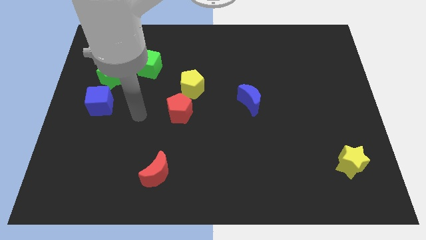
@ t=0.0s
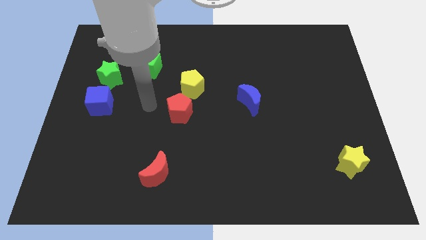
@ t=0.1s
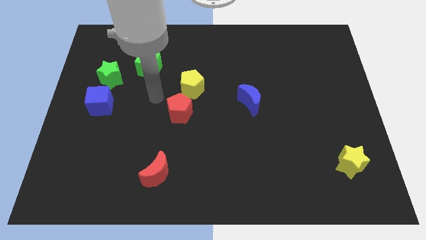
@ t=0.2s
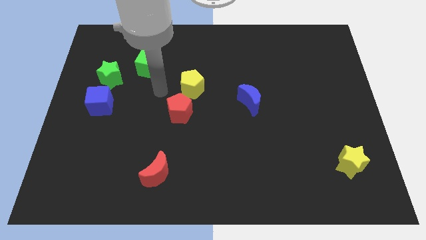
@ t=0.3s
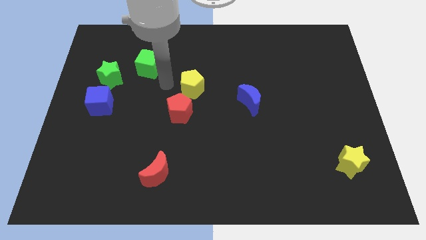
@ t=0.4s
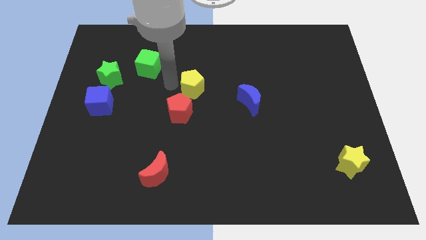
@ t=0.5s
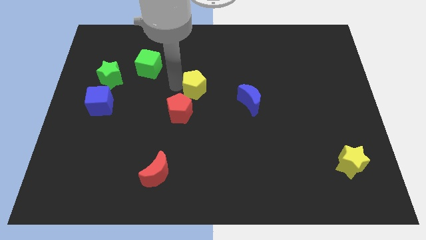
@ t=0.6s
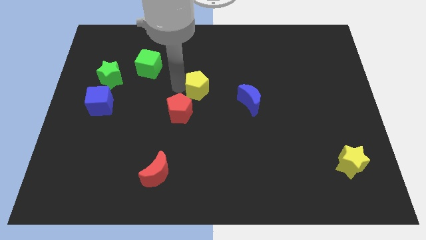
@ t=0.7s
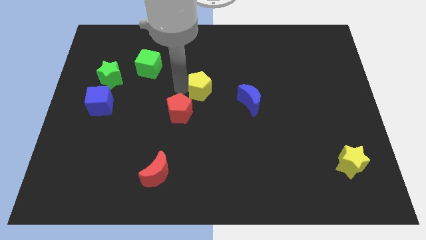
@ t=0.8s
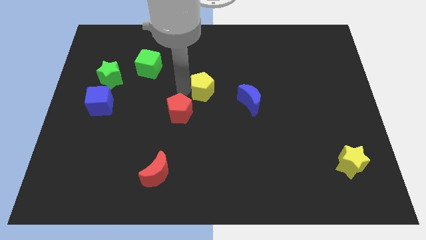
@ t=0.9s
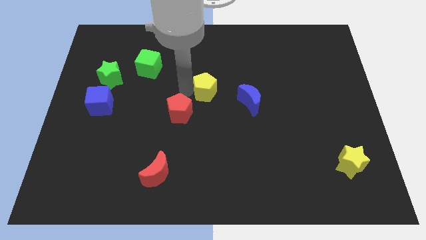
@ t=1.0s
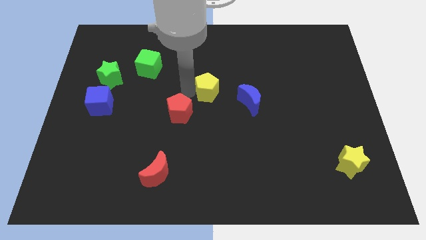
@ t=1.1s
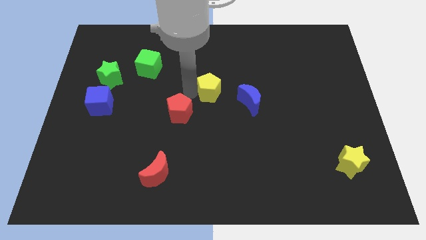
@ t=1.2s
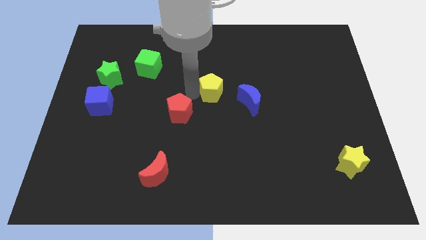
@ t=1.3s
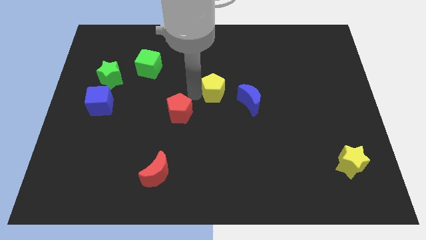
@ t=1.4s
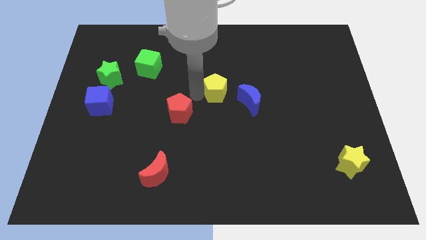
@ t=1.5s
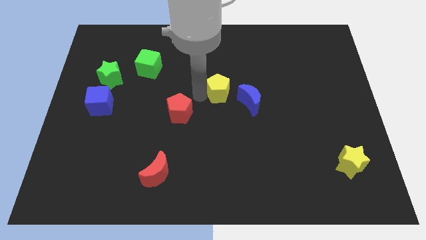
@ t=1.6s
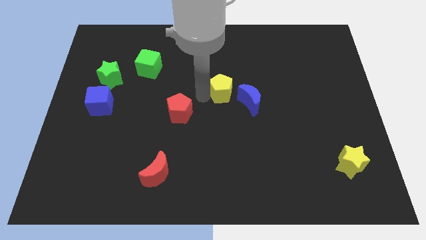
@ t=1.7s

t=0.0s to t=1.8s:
slide the yellow pentagon somewhat to the right

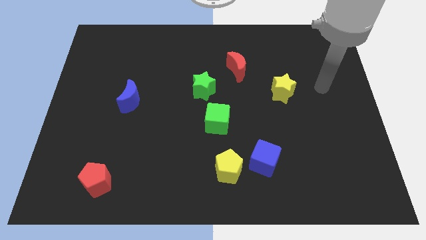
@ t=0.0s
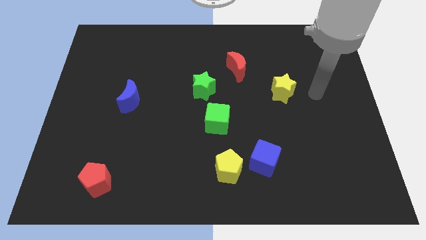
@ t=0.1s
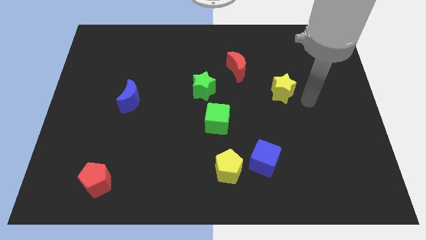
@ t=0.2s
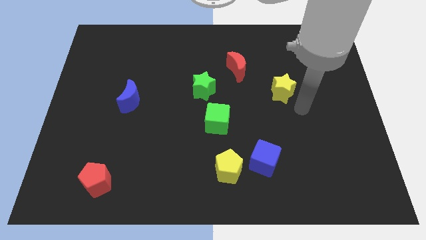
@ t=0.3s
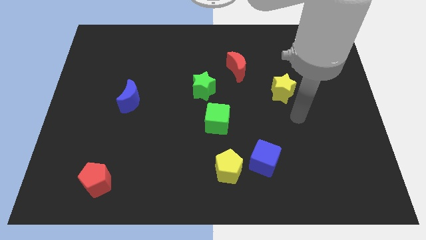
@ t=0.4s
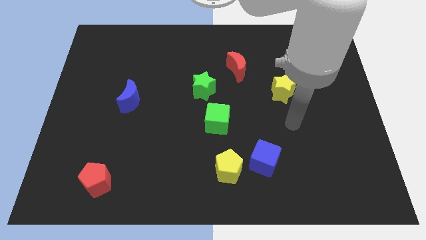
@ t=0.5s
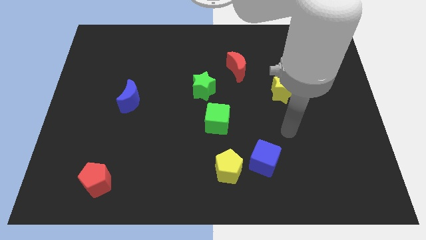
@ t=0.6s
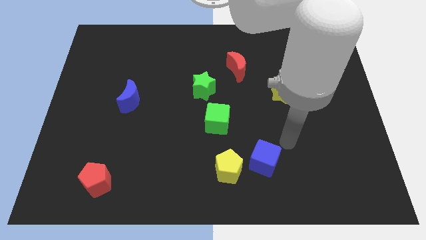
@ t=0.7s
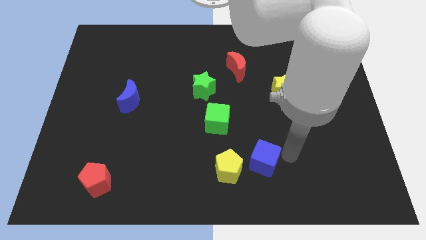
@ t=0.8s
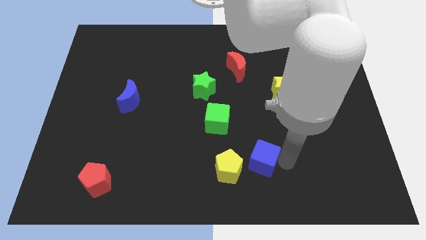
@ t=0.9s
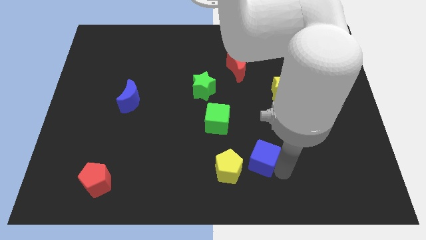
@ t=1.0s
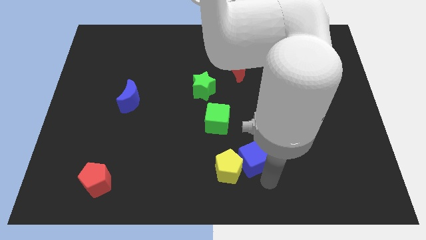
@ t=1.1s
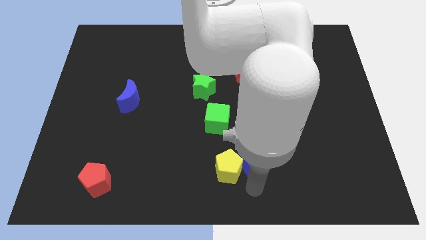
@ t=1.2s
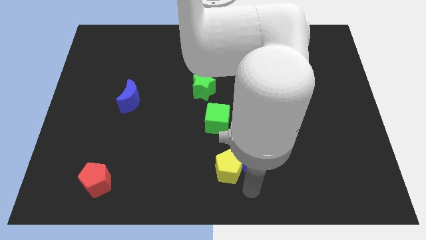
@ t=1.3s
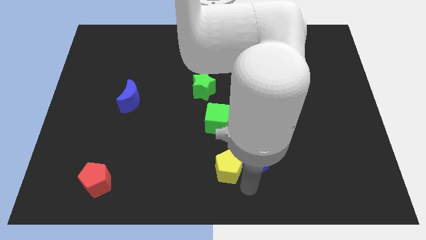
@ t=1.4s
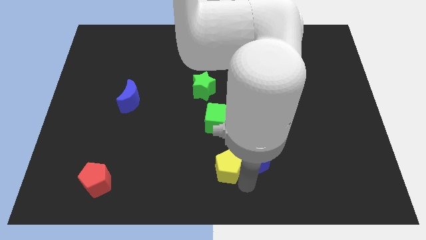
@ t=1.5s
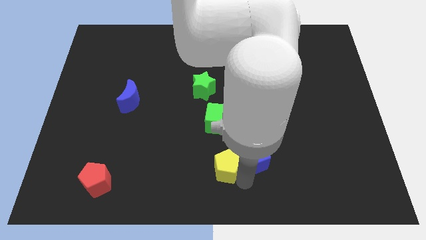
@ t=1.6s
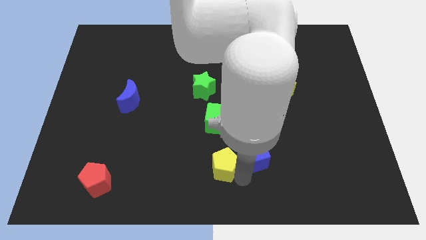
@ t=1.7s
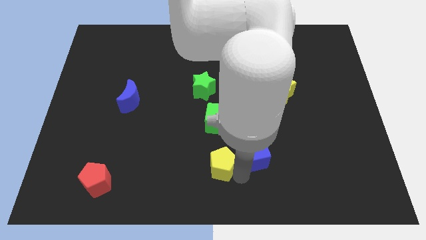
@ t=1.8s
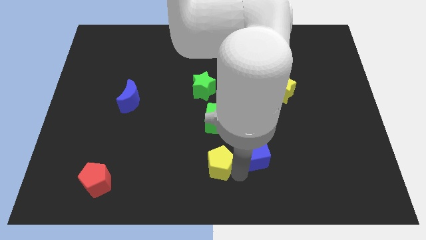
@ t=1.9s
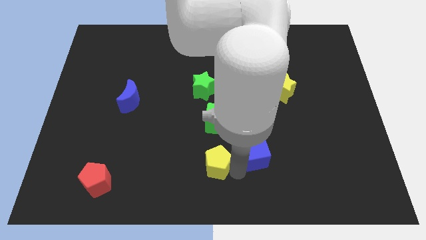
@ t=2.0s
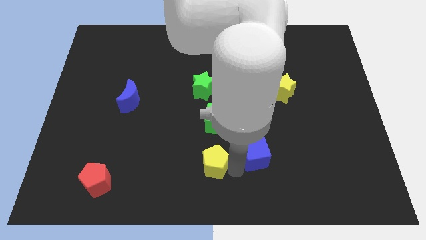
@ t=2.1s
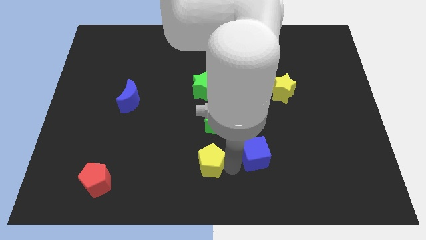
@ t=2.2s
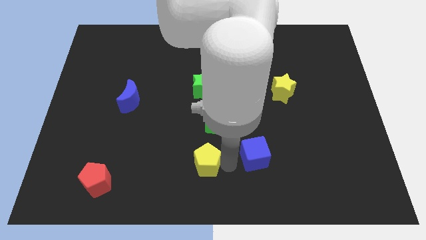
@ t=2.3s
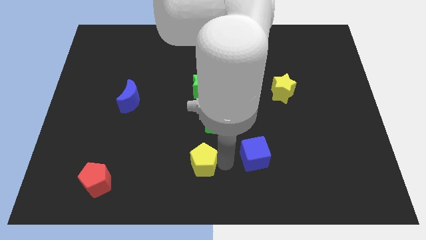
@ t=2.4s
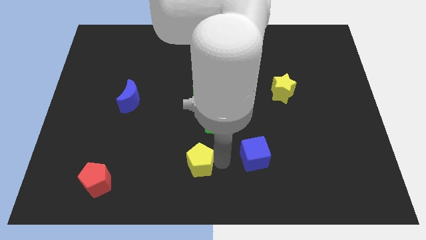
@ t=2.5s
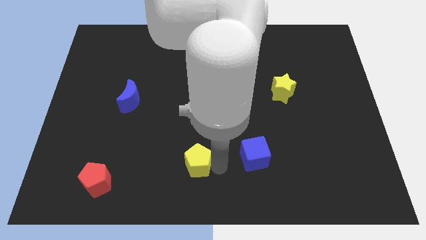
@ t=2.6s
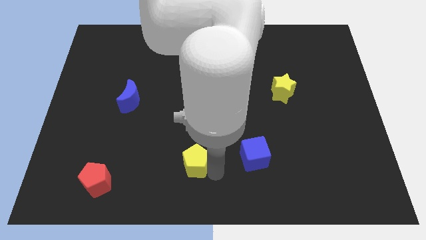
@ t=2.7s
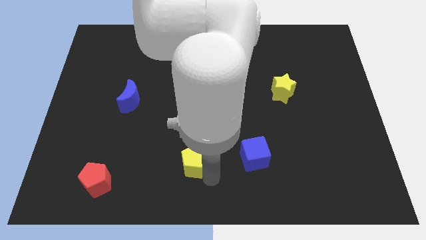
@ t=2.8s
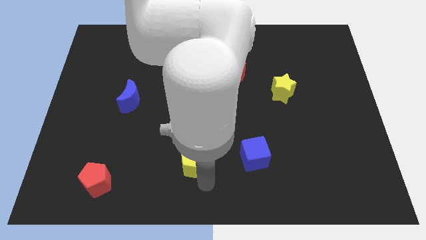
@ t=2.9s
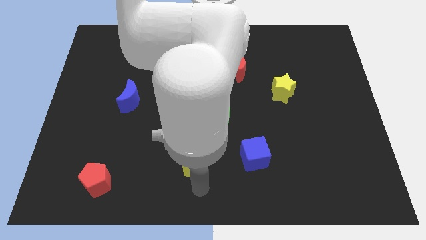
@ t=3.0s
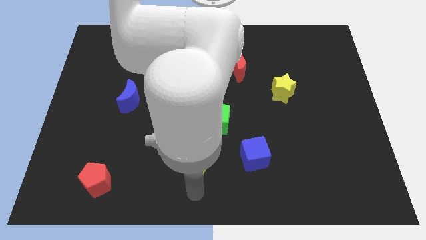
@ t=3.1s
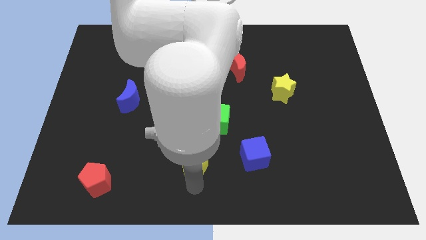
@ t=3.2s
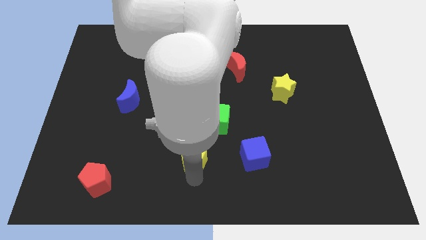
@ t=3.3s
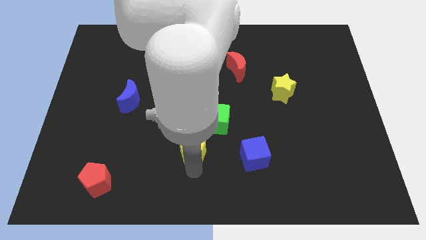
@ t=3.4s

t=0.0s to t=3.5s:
slightly push the yellow pentagon upwards and to the left diagonally

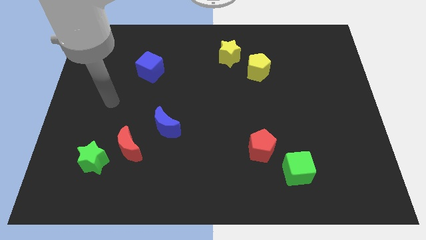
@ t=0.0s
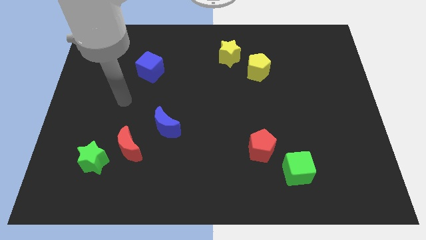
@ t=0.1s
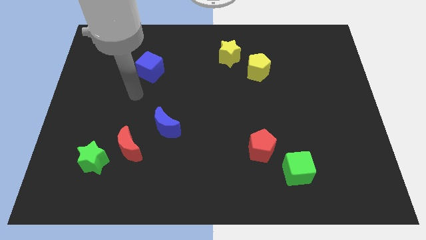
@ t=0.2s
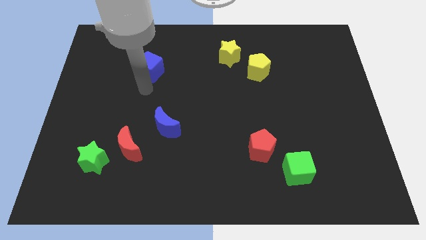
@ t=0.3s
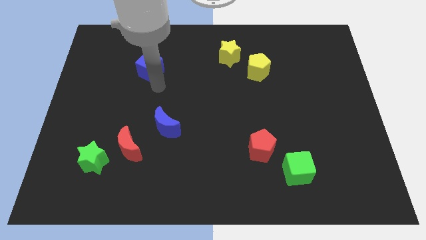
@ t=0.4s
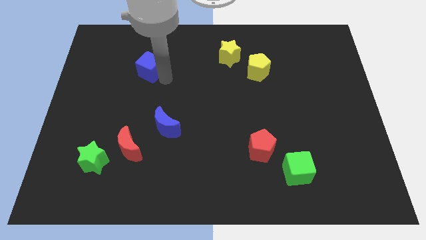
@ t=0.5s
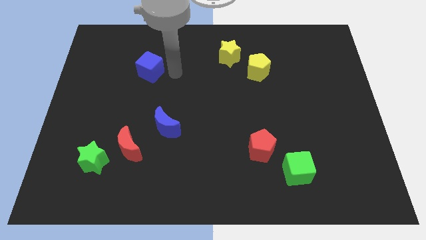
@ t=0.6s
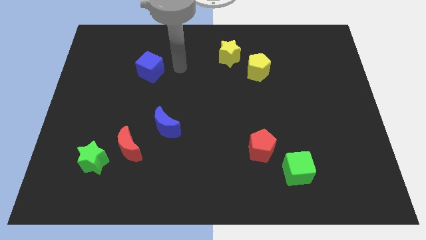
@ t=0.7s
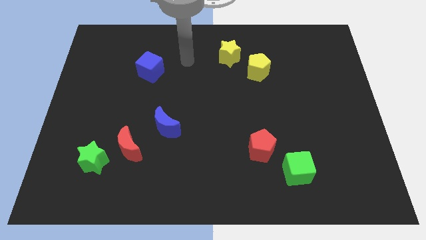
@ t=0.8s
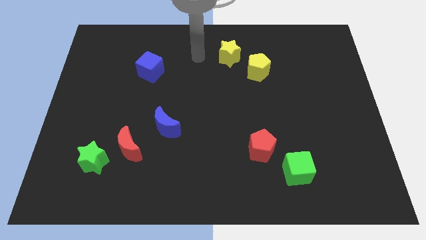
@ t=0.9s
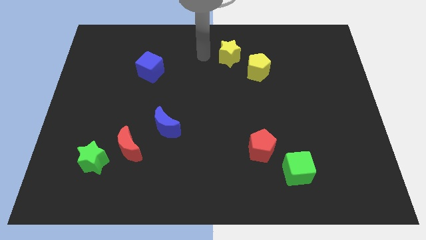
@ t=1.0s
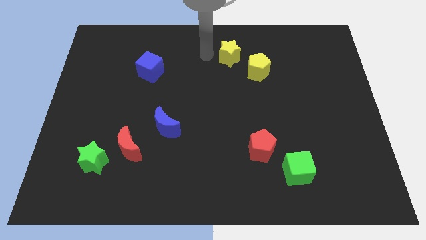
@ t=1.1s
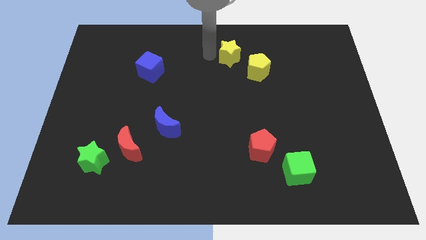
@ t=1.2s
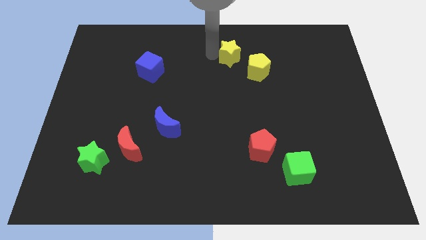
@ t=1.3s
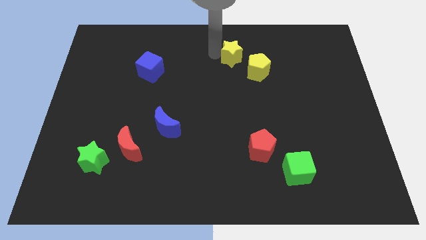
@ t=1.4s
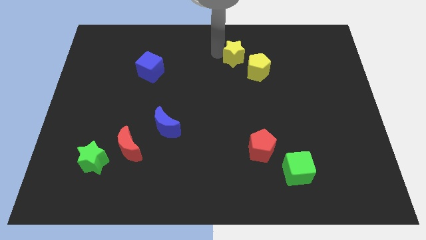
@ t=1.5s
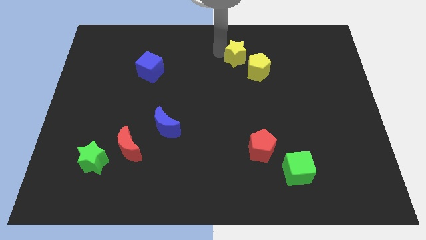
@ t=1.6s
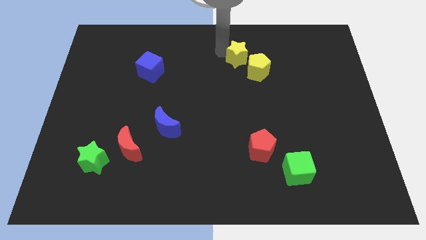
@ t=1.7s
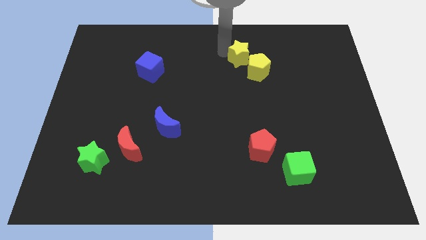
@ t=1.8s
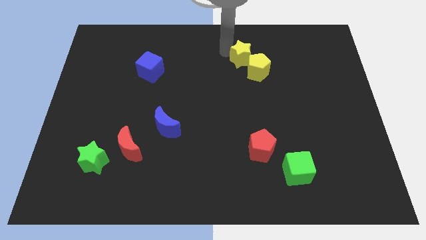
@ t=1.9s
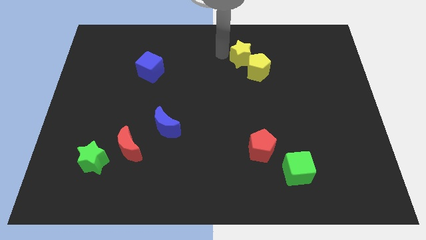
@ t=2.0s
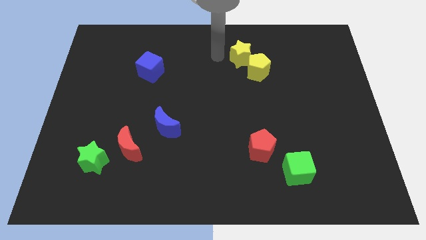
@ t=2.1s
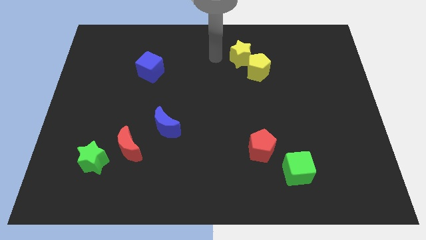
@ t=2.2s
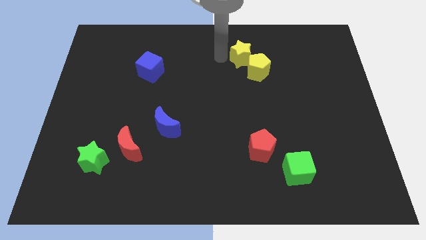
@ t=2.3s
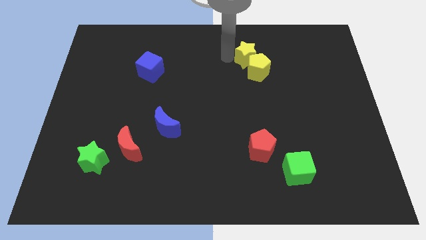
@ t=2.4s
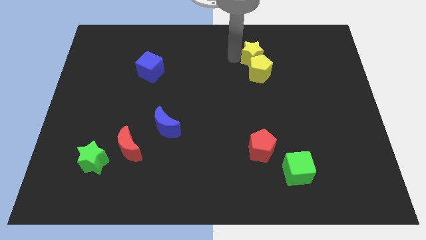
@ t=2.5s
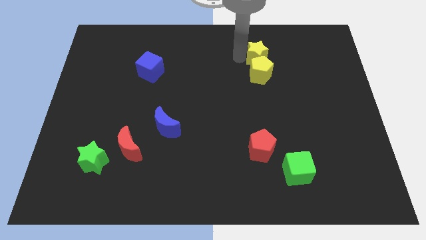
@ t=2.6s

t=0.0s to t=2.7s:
slightly push the yellow star right
